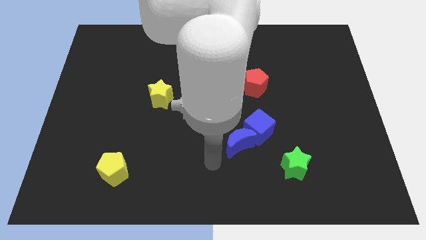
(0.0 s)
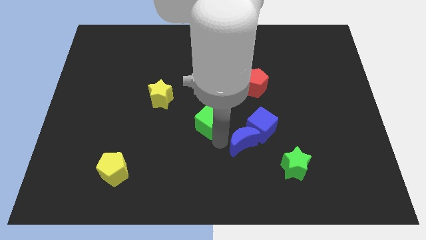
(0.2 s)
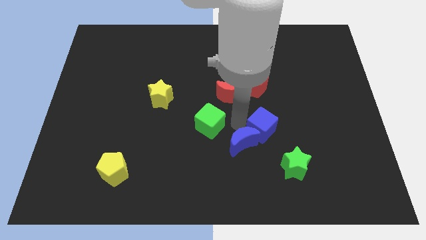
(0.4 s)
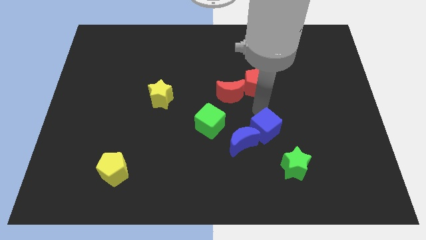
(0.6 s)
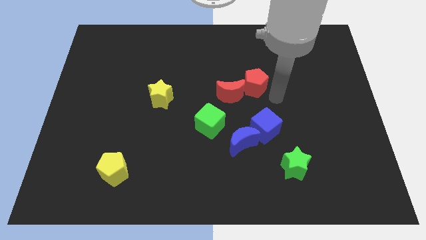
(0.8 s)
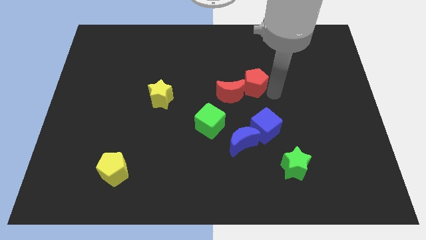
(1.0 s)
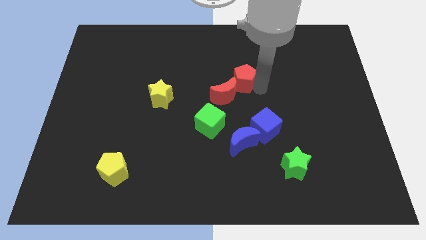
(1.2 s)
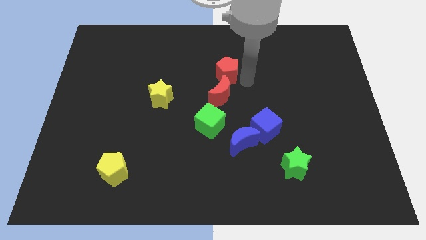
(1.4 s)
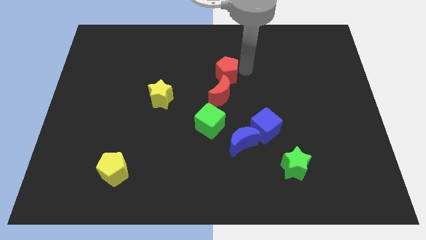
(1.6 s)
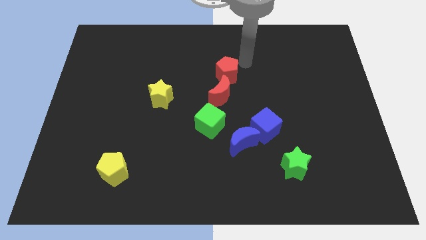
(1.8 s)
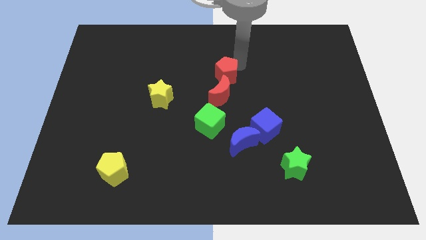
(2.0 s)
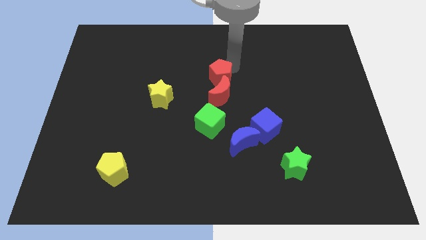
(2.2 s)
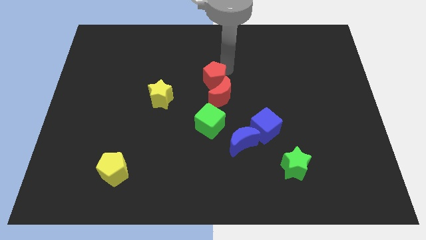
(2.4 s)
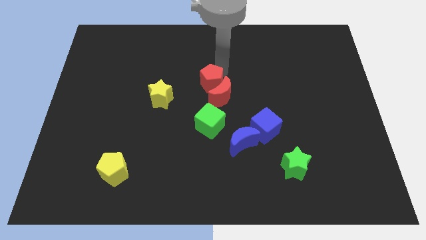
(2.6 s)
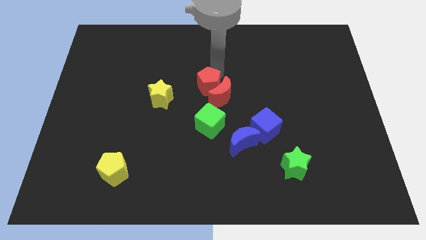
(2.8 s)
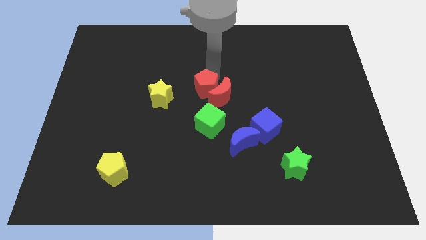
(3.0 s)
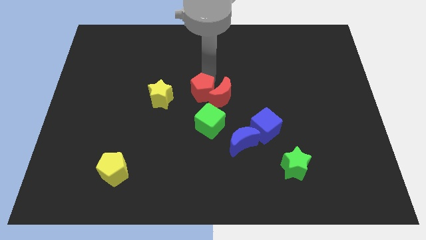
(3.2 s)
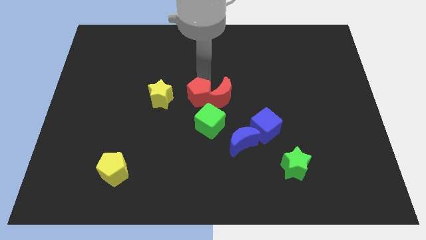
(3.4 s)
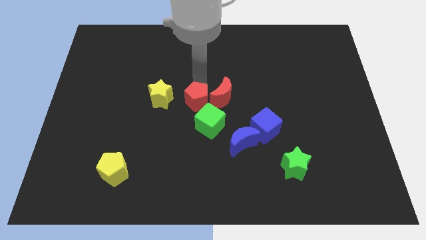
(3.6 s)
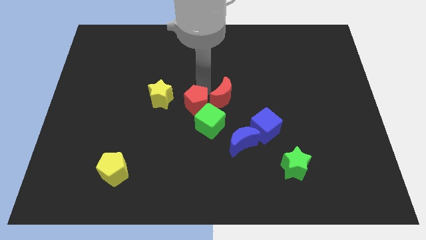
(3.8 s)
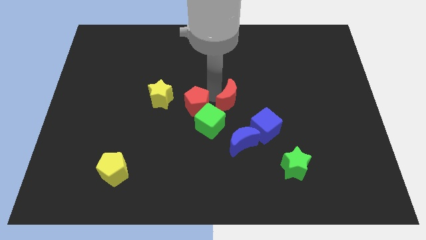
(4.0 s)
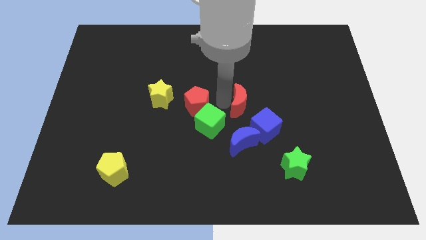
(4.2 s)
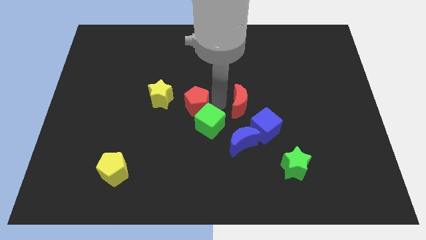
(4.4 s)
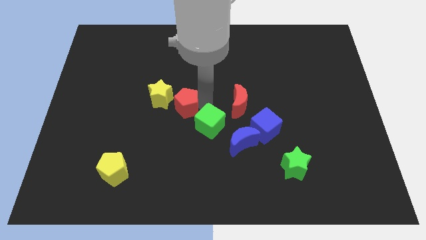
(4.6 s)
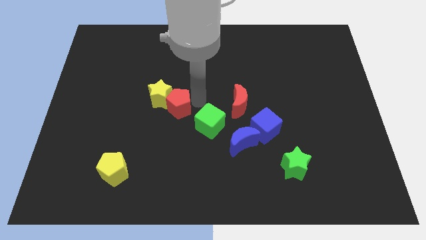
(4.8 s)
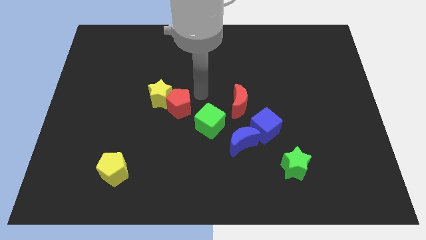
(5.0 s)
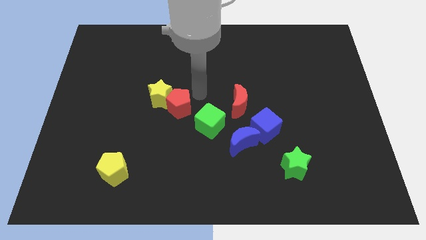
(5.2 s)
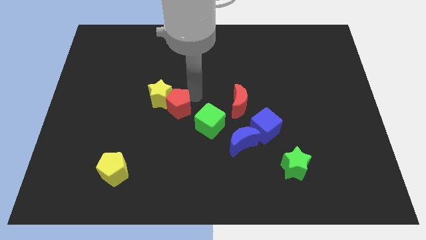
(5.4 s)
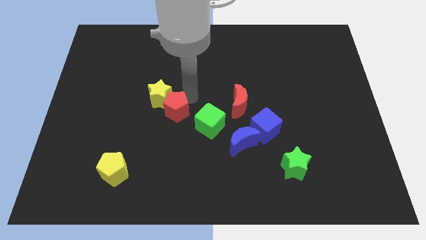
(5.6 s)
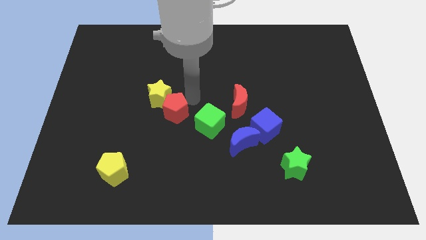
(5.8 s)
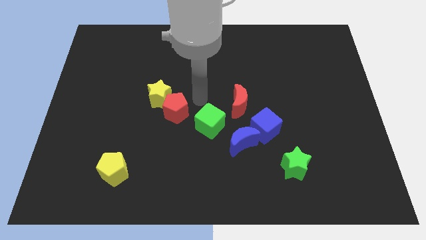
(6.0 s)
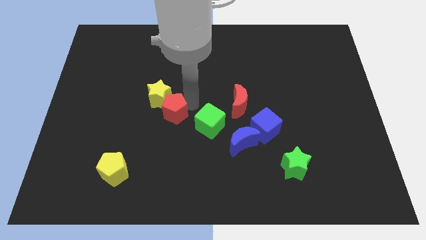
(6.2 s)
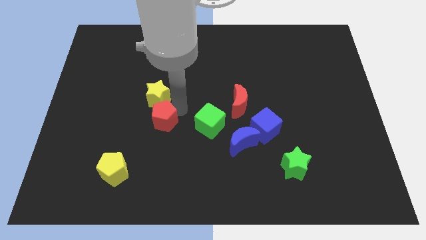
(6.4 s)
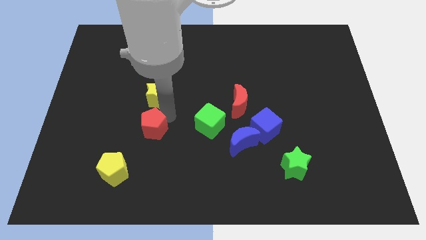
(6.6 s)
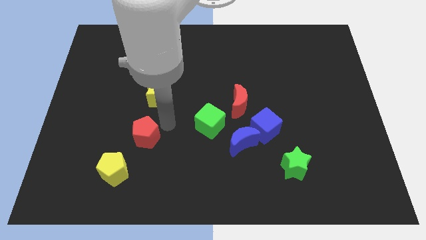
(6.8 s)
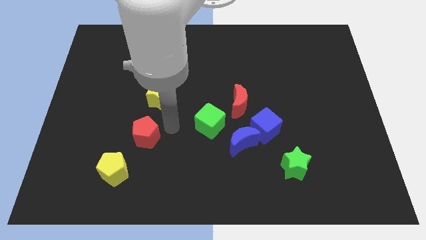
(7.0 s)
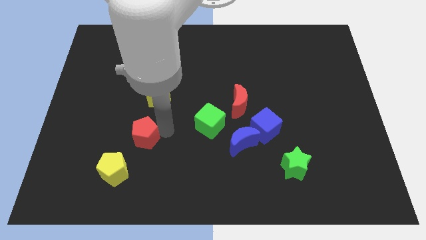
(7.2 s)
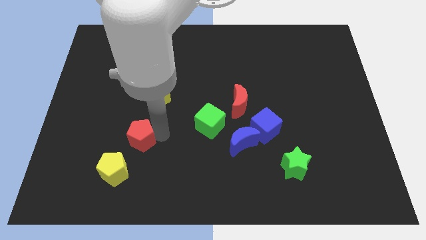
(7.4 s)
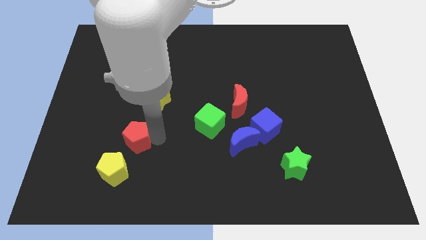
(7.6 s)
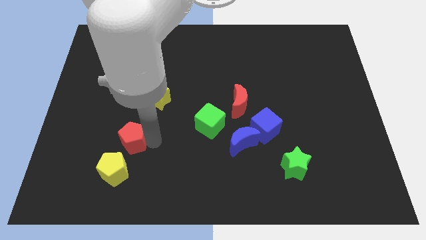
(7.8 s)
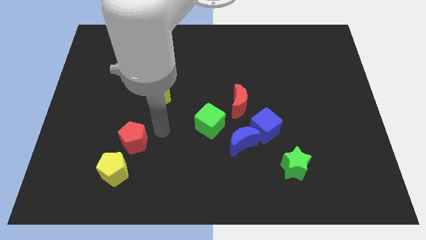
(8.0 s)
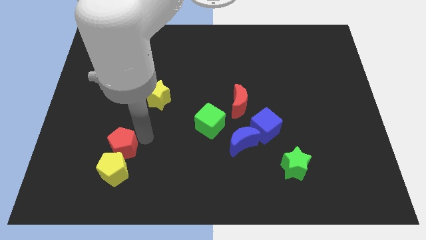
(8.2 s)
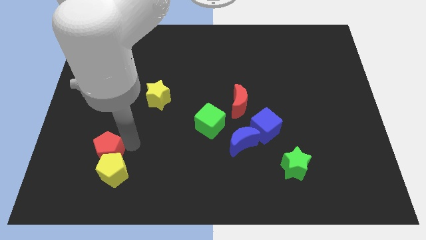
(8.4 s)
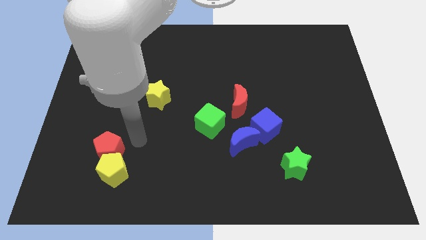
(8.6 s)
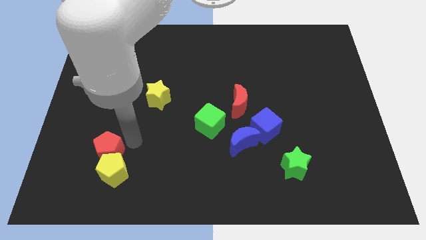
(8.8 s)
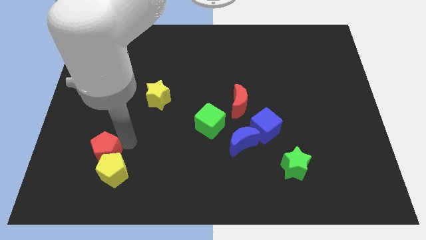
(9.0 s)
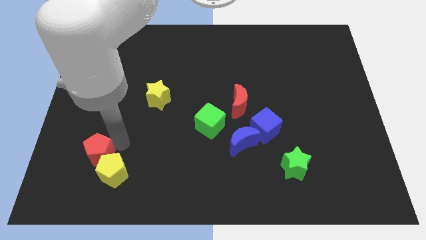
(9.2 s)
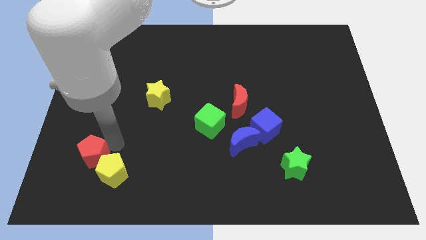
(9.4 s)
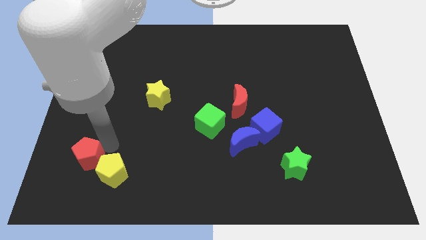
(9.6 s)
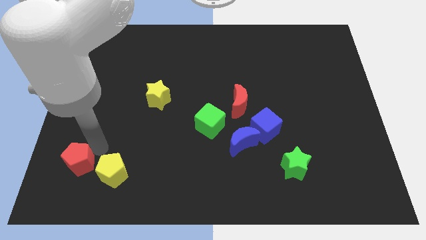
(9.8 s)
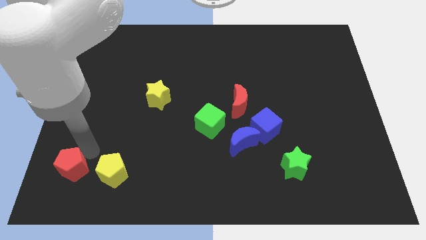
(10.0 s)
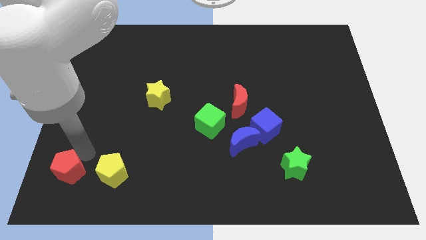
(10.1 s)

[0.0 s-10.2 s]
move the red pentagon to the lower left corner

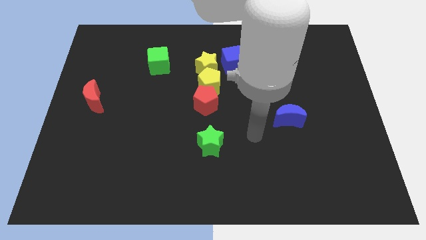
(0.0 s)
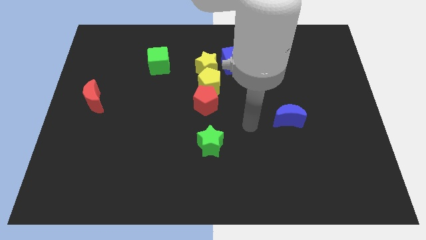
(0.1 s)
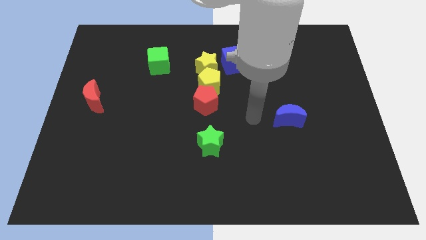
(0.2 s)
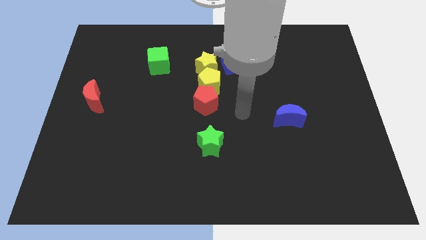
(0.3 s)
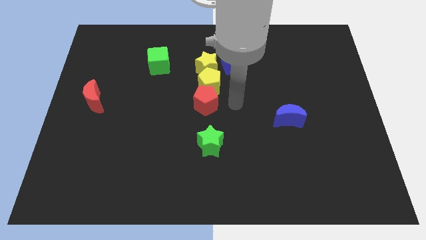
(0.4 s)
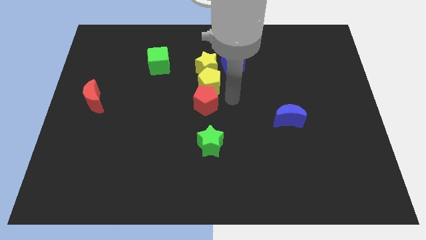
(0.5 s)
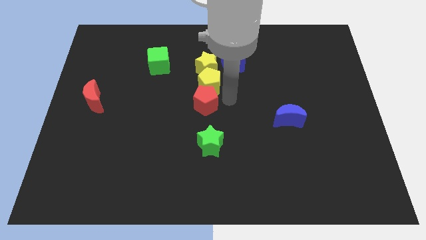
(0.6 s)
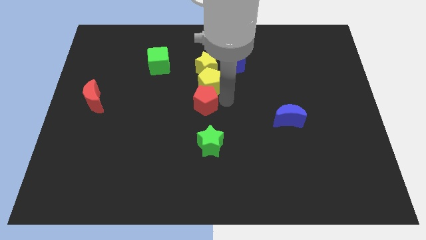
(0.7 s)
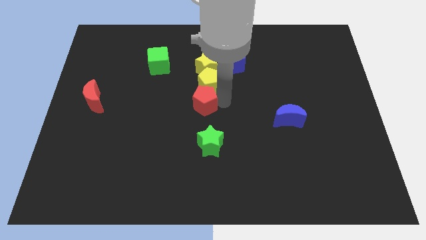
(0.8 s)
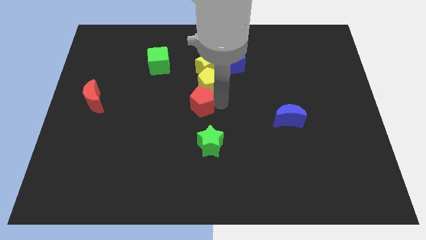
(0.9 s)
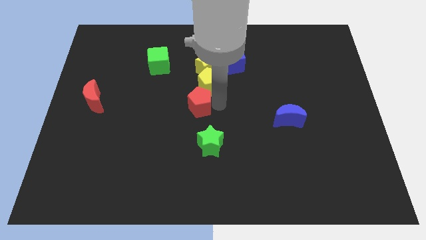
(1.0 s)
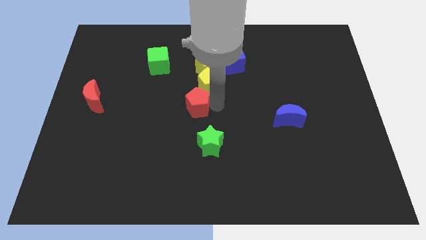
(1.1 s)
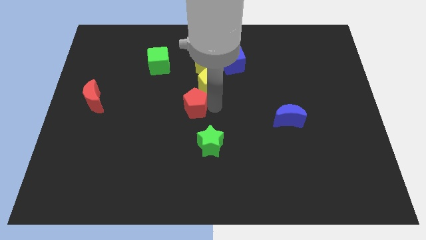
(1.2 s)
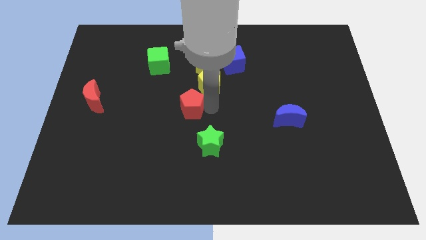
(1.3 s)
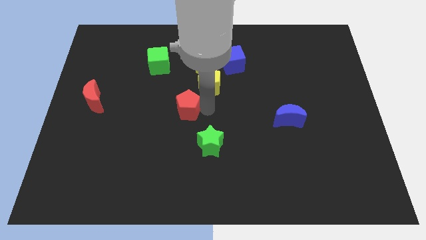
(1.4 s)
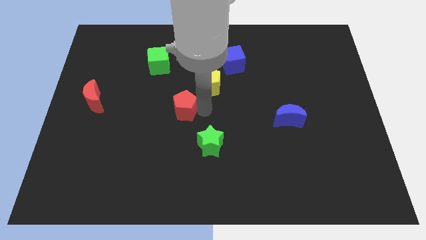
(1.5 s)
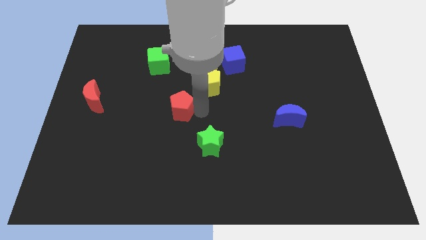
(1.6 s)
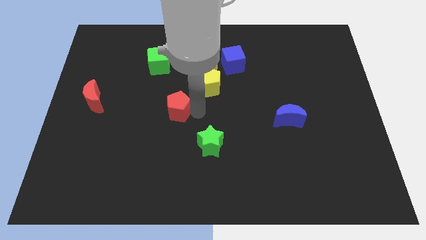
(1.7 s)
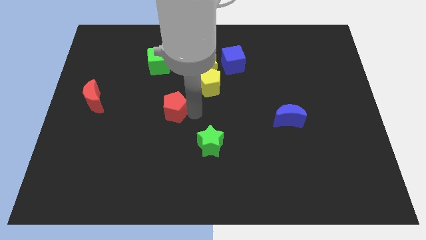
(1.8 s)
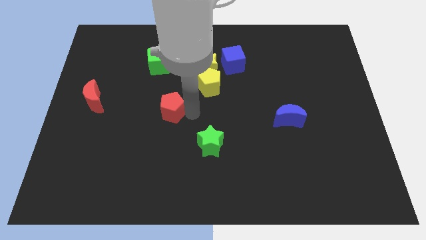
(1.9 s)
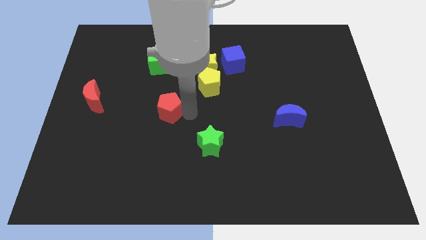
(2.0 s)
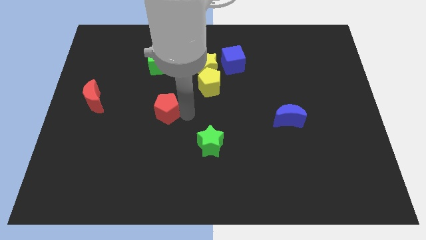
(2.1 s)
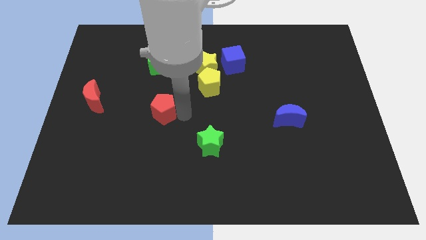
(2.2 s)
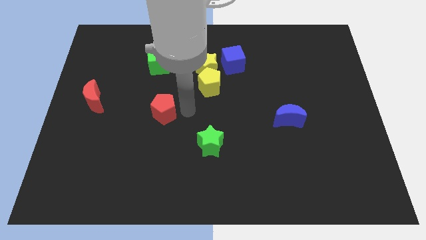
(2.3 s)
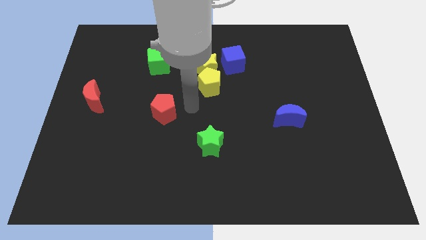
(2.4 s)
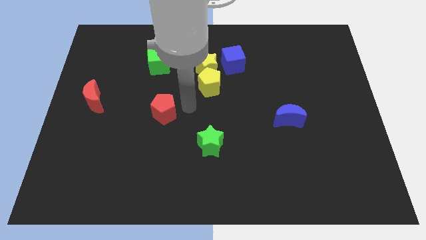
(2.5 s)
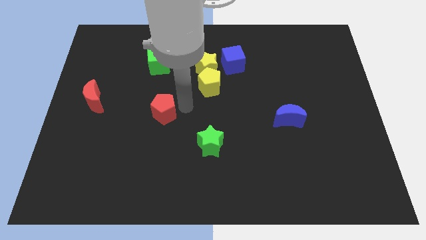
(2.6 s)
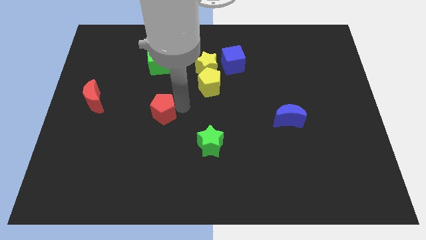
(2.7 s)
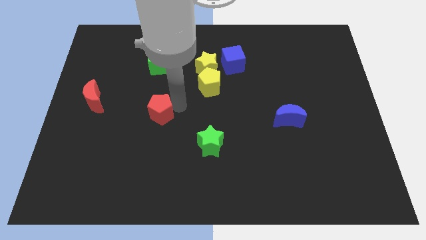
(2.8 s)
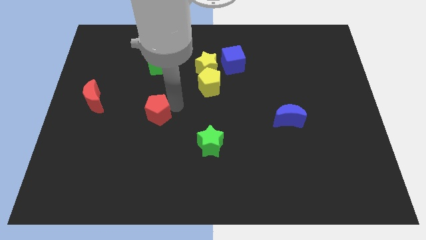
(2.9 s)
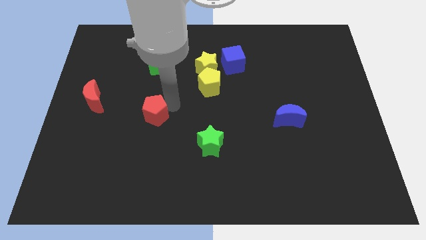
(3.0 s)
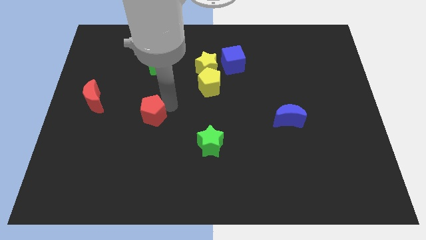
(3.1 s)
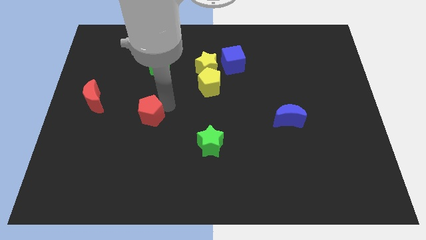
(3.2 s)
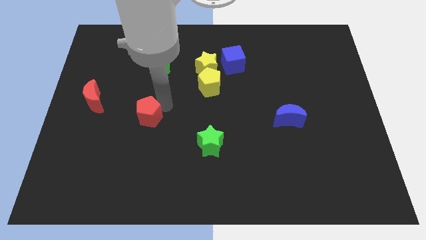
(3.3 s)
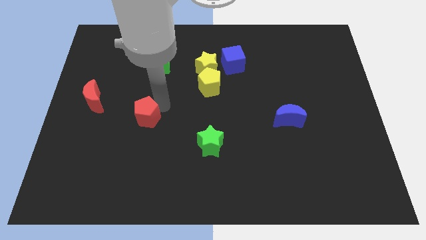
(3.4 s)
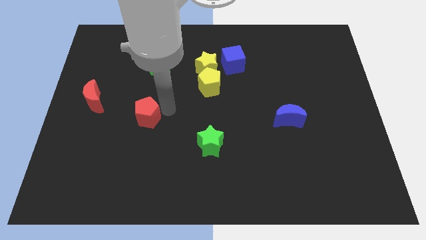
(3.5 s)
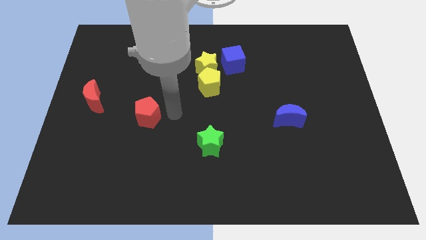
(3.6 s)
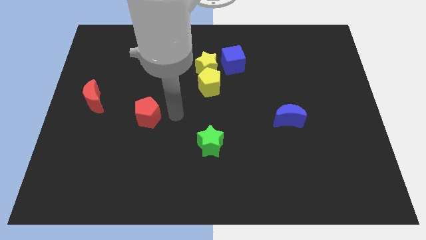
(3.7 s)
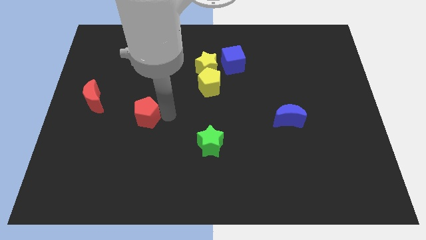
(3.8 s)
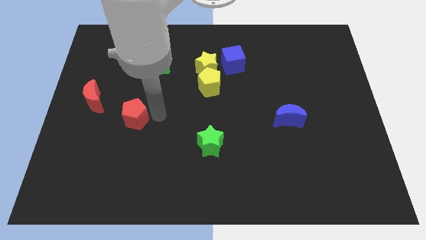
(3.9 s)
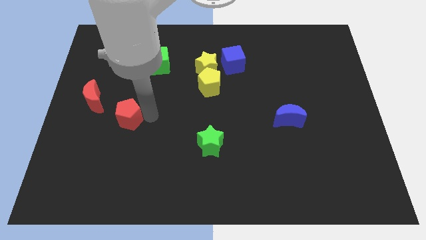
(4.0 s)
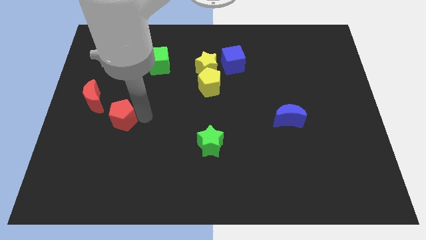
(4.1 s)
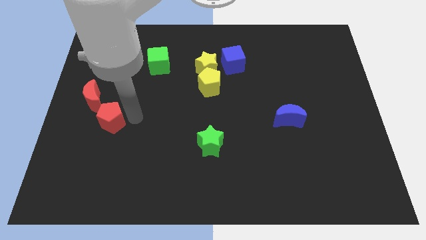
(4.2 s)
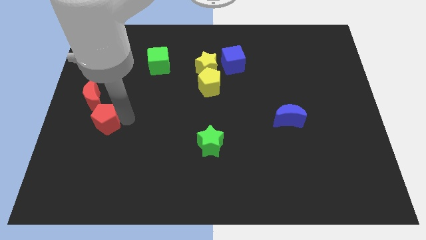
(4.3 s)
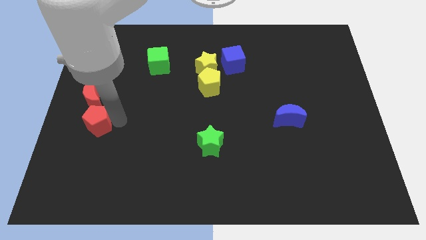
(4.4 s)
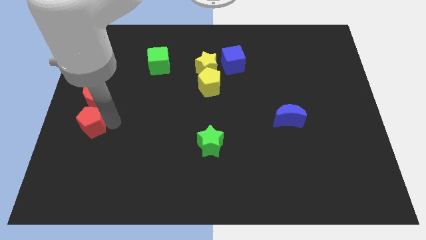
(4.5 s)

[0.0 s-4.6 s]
move the red pentagon to the left side
